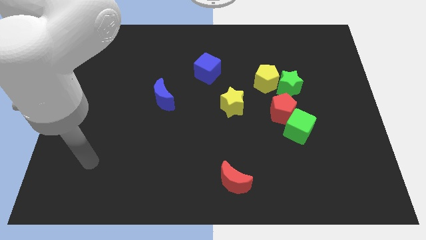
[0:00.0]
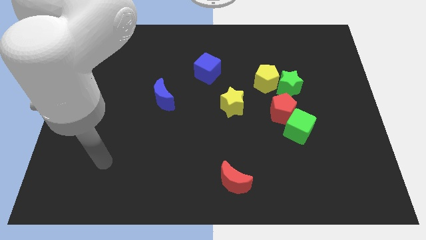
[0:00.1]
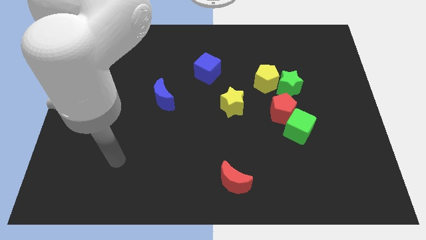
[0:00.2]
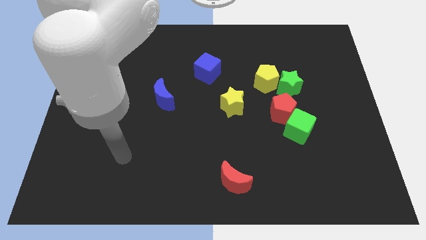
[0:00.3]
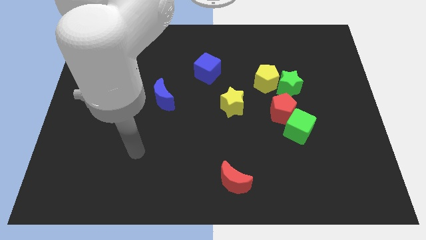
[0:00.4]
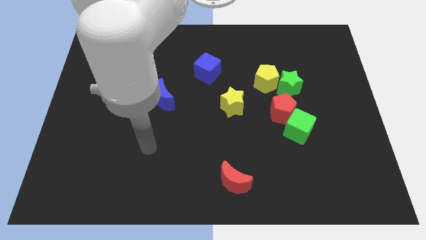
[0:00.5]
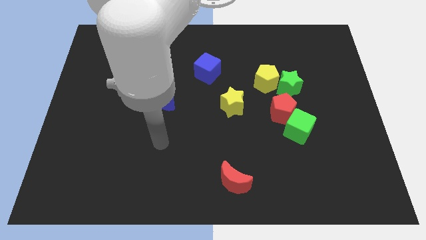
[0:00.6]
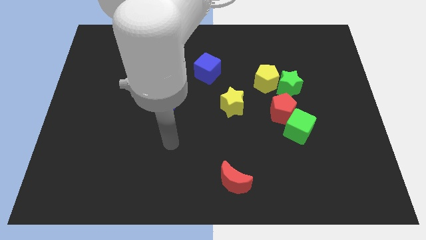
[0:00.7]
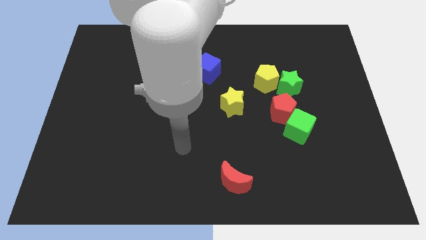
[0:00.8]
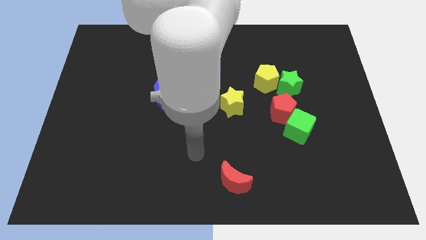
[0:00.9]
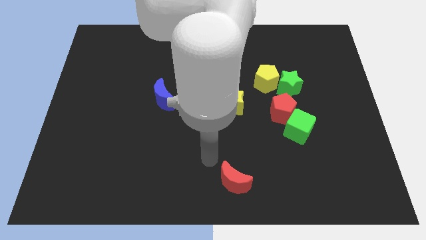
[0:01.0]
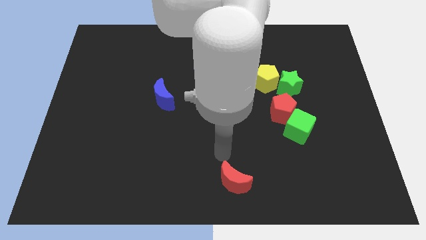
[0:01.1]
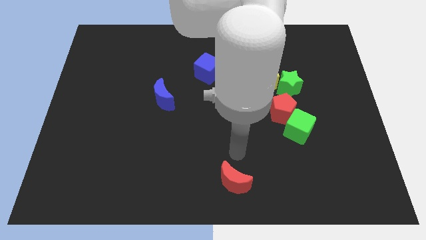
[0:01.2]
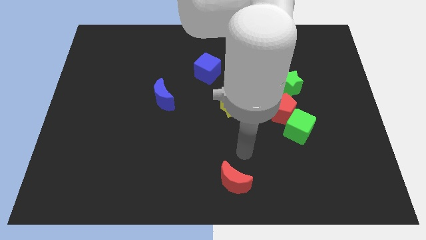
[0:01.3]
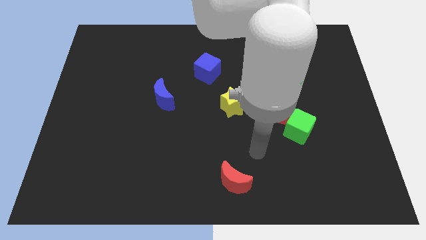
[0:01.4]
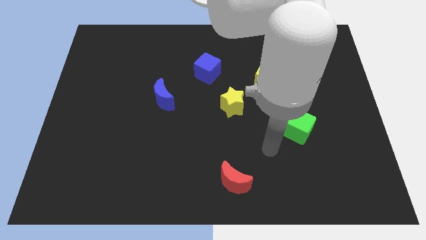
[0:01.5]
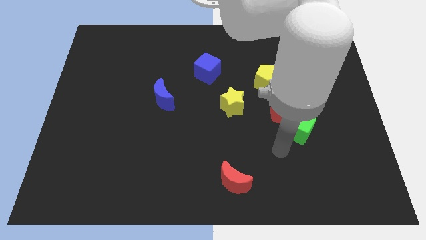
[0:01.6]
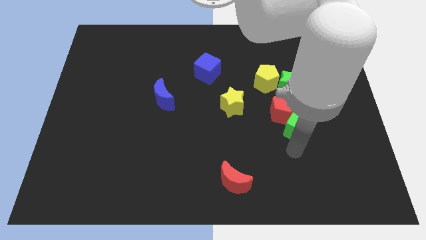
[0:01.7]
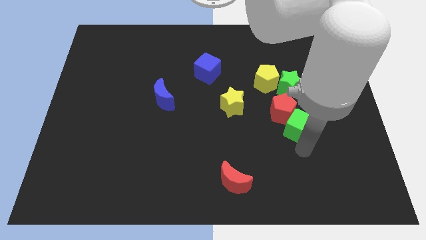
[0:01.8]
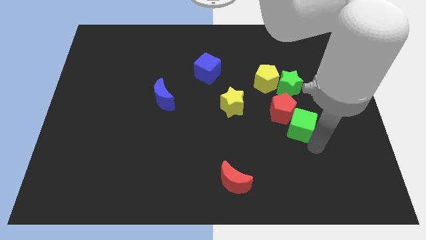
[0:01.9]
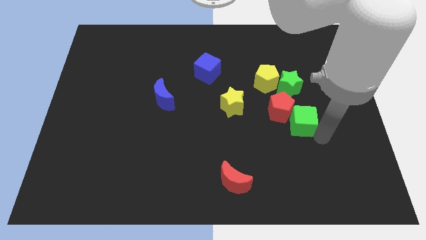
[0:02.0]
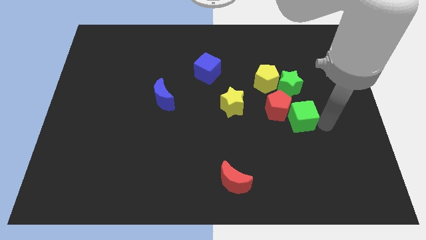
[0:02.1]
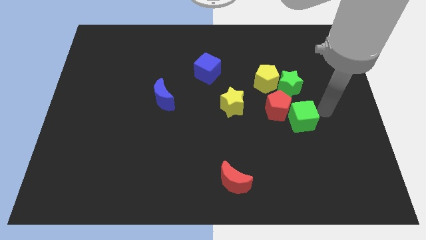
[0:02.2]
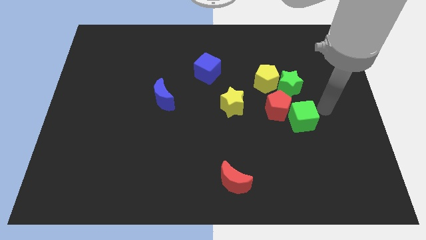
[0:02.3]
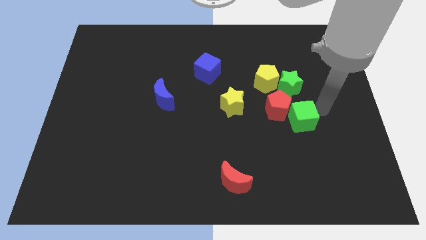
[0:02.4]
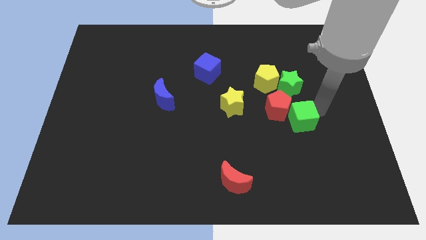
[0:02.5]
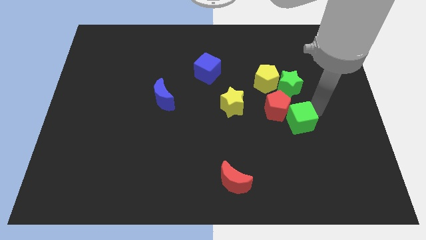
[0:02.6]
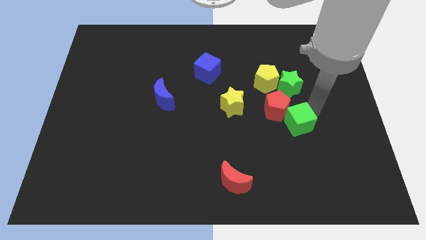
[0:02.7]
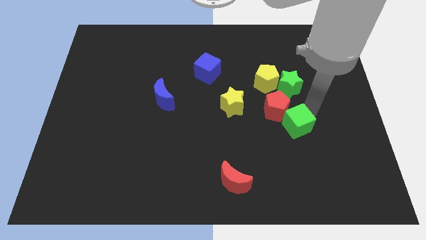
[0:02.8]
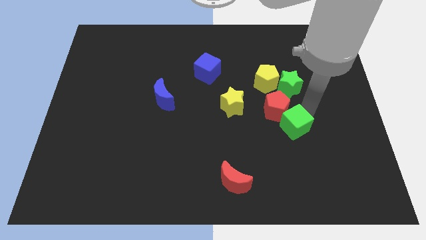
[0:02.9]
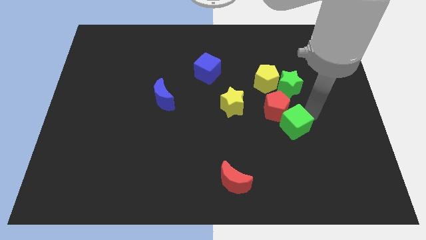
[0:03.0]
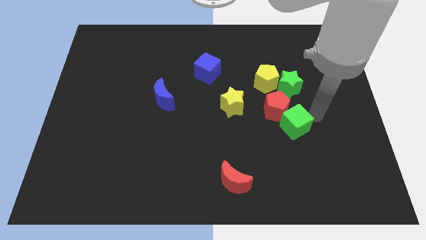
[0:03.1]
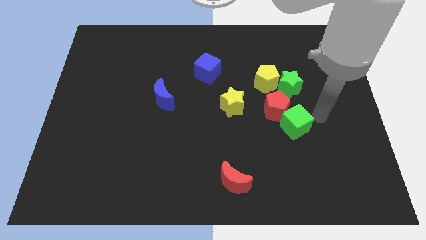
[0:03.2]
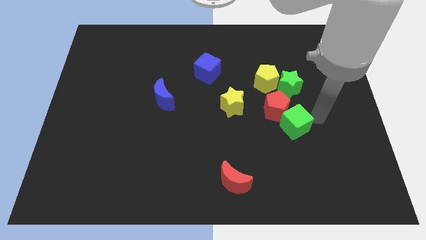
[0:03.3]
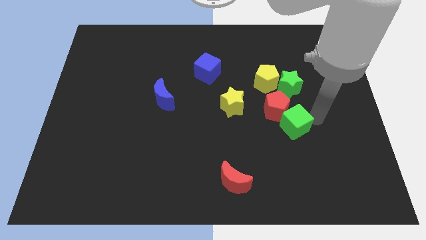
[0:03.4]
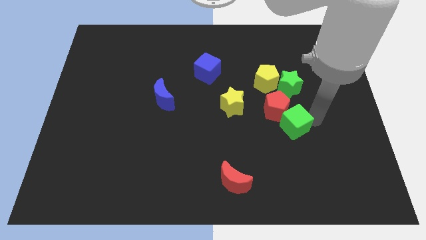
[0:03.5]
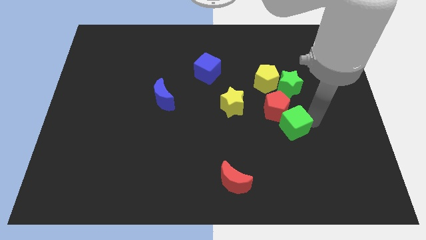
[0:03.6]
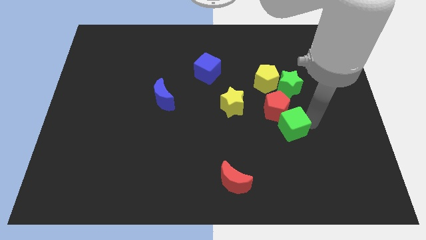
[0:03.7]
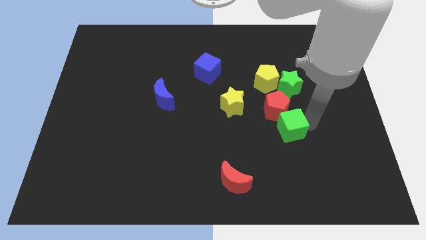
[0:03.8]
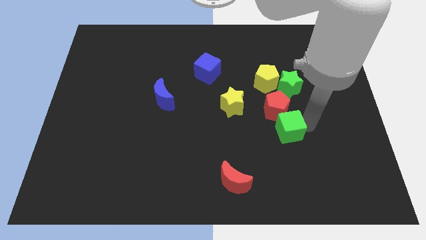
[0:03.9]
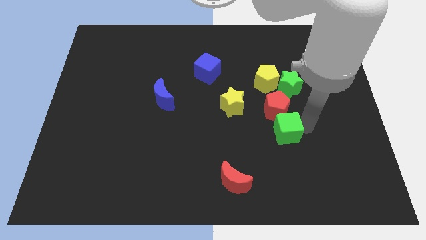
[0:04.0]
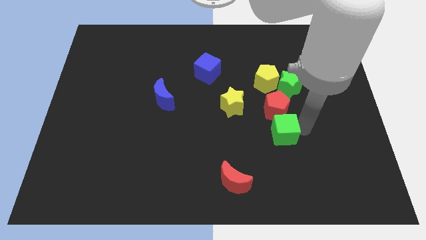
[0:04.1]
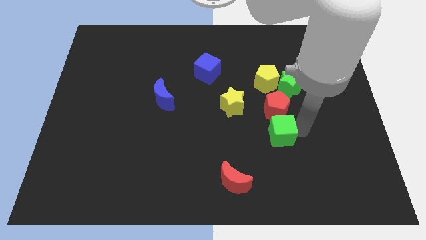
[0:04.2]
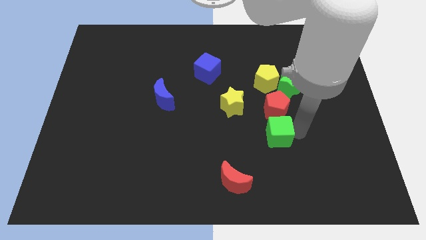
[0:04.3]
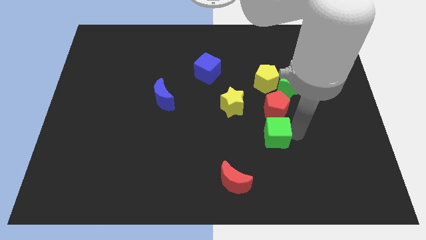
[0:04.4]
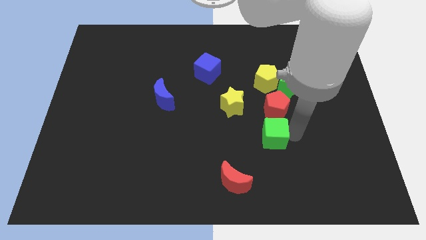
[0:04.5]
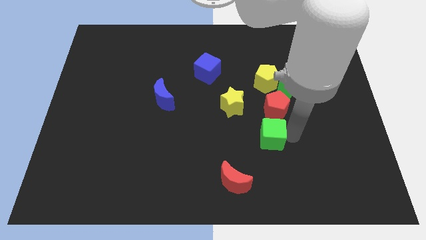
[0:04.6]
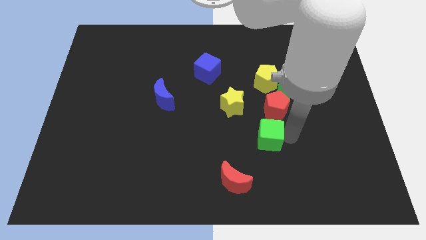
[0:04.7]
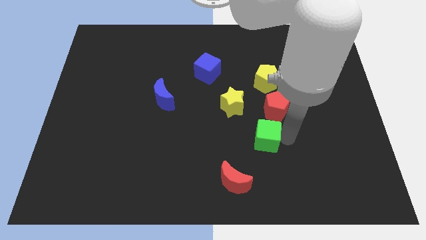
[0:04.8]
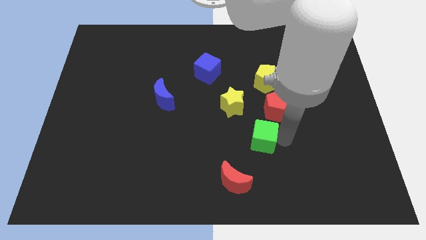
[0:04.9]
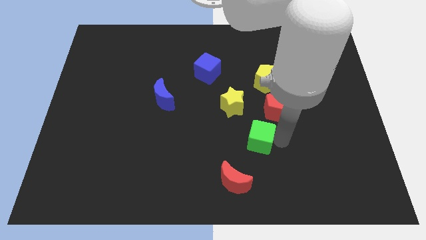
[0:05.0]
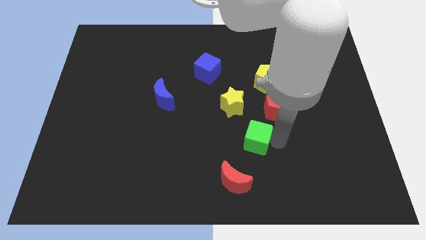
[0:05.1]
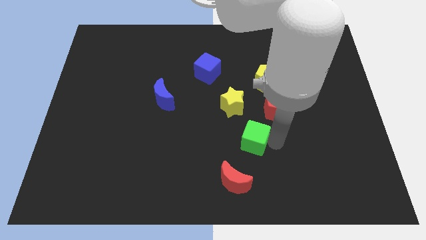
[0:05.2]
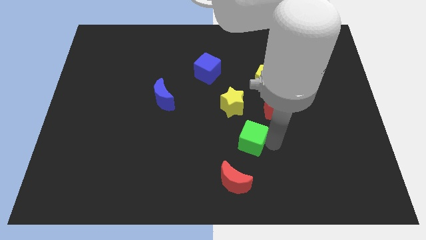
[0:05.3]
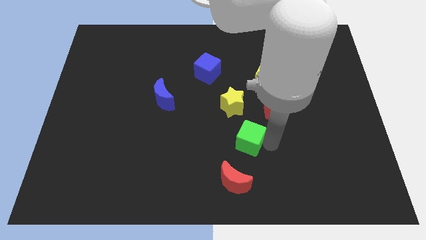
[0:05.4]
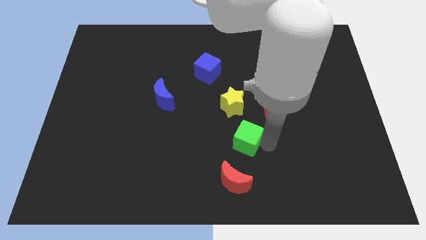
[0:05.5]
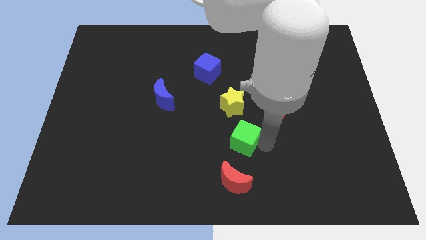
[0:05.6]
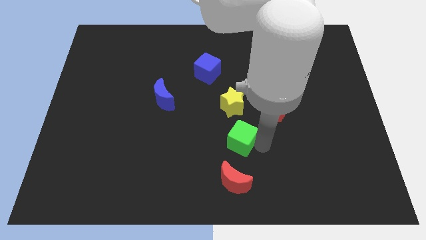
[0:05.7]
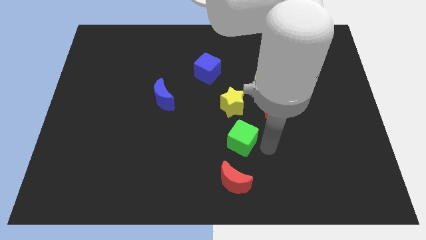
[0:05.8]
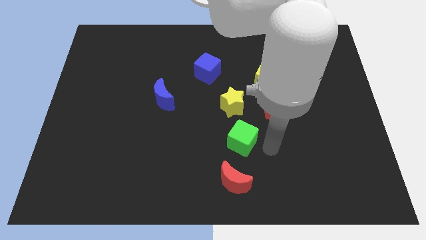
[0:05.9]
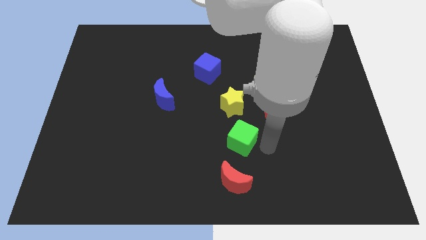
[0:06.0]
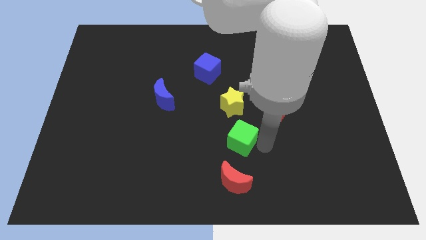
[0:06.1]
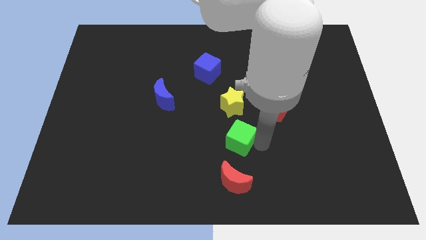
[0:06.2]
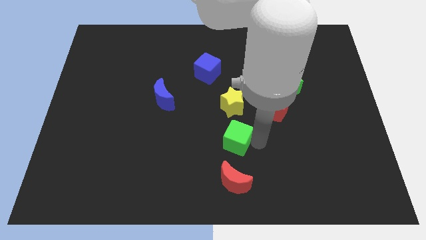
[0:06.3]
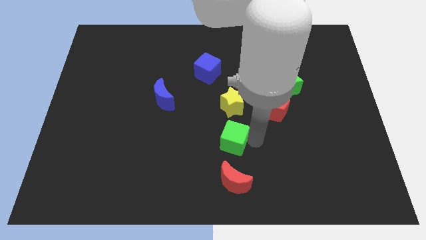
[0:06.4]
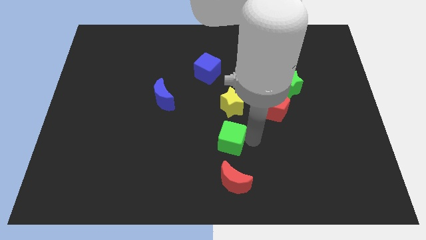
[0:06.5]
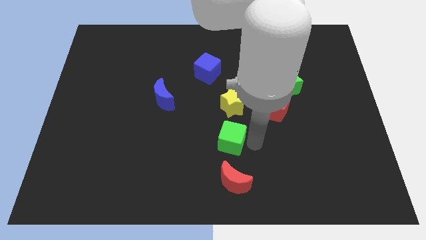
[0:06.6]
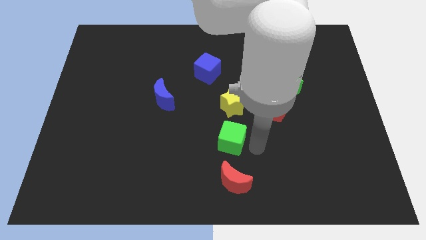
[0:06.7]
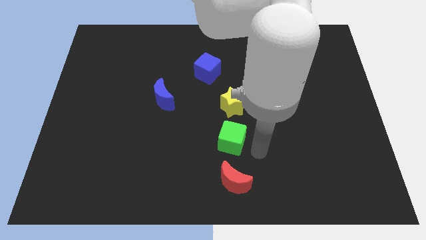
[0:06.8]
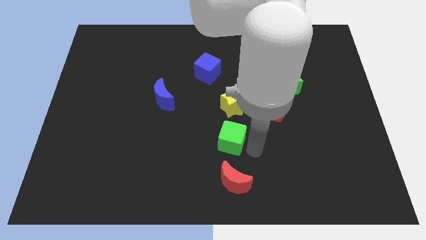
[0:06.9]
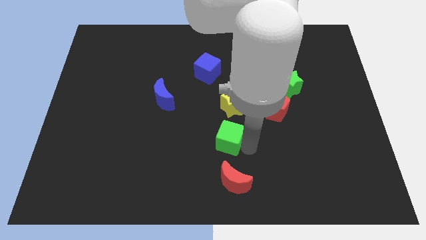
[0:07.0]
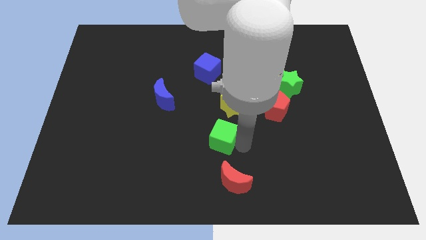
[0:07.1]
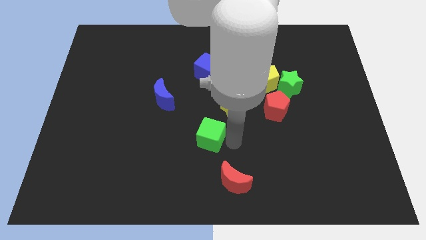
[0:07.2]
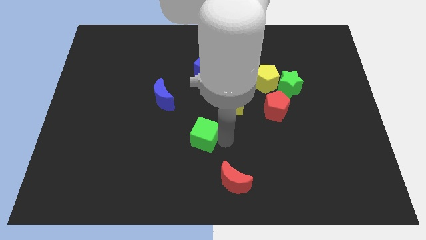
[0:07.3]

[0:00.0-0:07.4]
push the green cube left

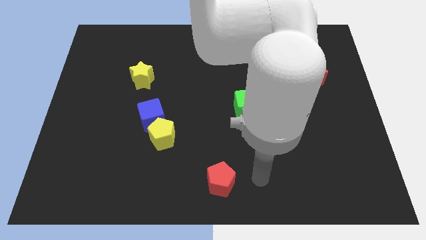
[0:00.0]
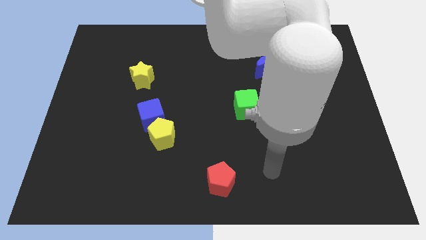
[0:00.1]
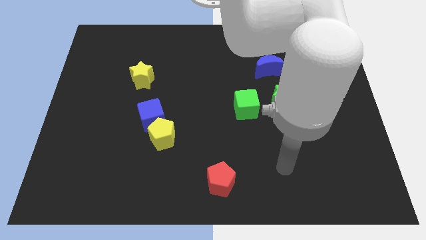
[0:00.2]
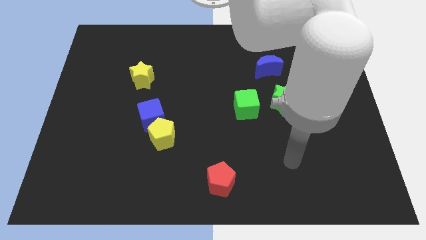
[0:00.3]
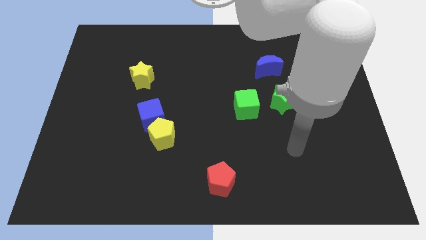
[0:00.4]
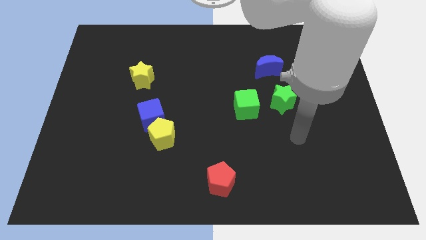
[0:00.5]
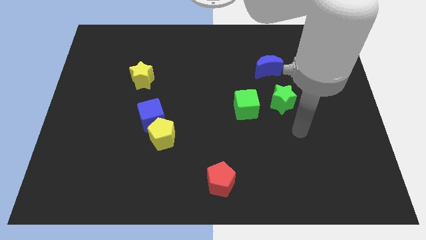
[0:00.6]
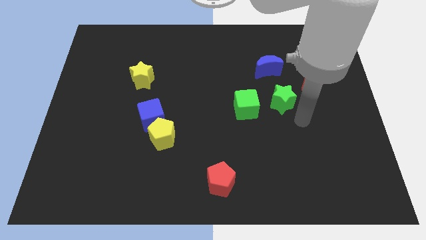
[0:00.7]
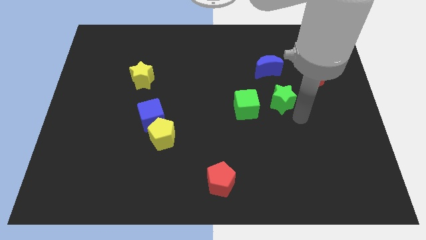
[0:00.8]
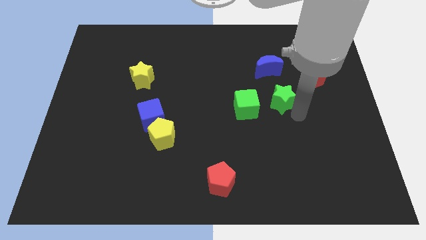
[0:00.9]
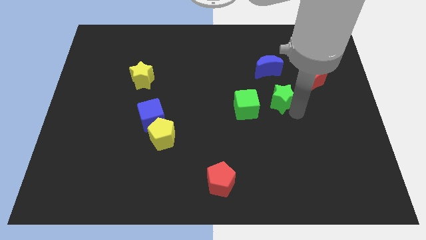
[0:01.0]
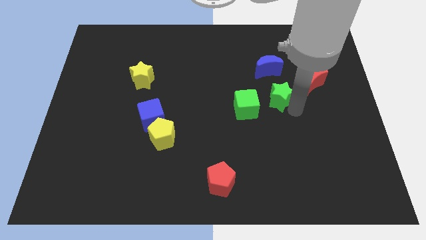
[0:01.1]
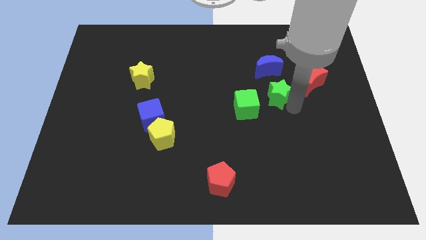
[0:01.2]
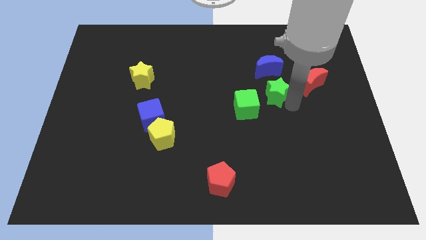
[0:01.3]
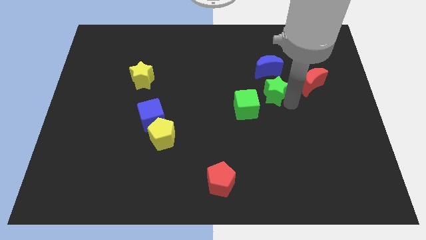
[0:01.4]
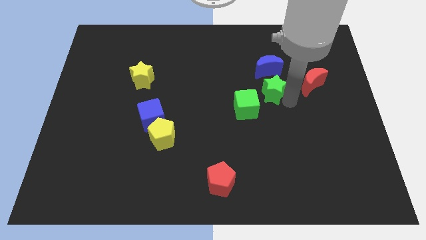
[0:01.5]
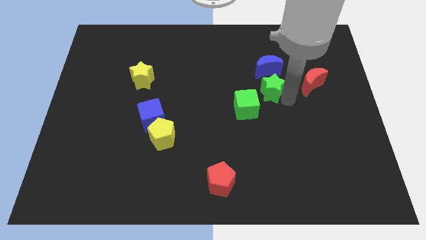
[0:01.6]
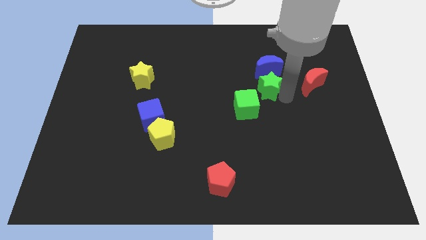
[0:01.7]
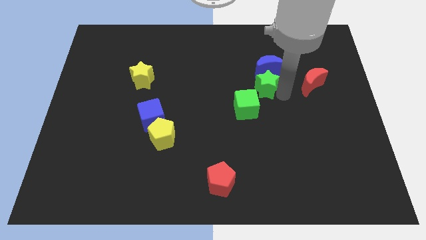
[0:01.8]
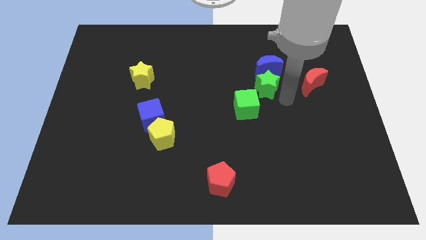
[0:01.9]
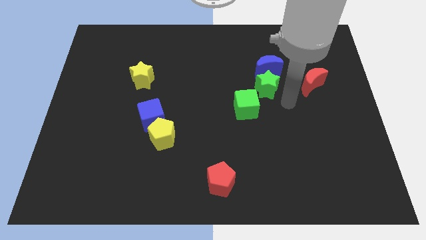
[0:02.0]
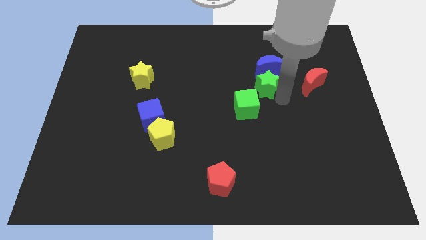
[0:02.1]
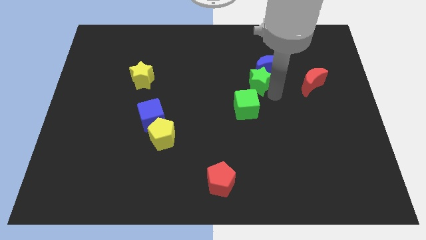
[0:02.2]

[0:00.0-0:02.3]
slightly push the green star up and left
